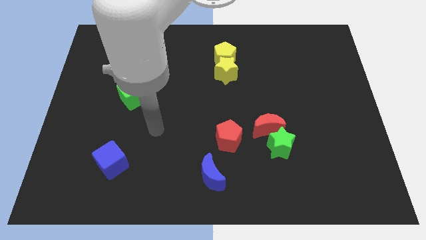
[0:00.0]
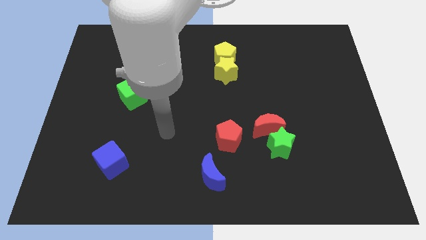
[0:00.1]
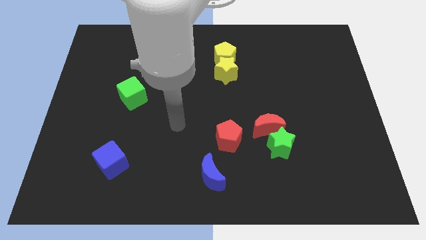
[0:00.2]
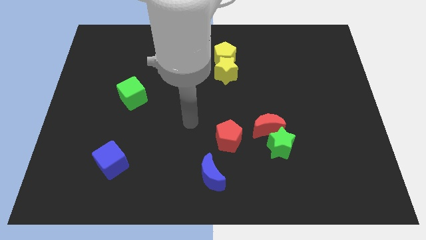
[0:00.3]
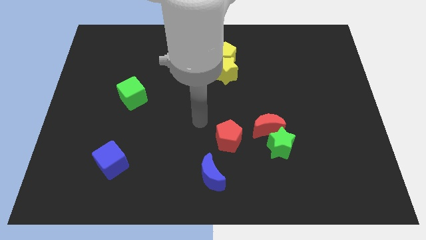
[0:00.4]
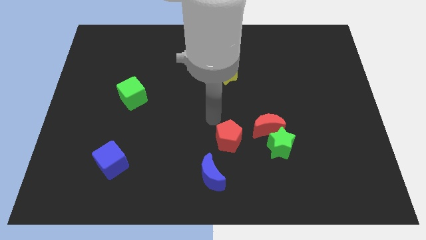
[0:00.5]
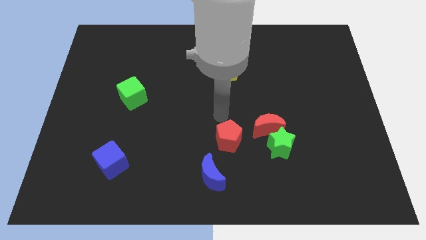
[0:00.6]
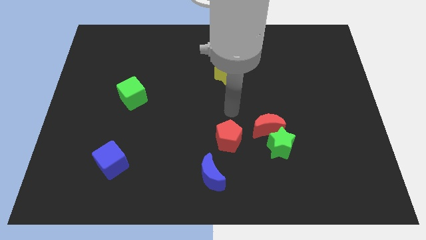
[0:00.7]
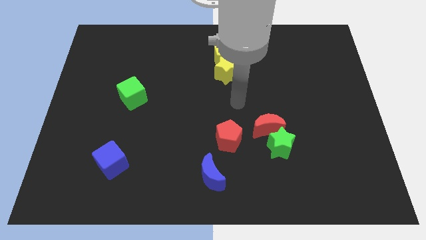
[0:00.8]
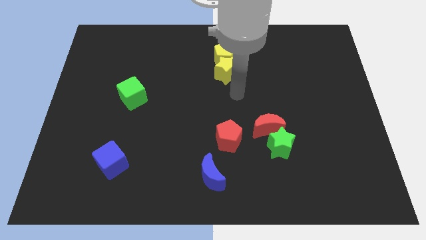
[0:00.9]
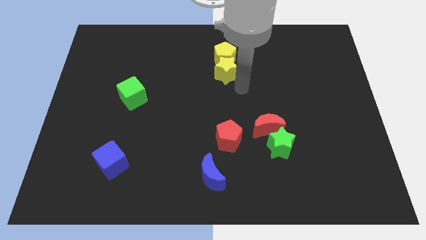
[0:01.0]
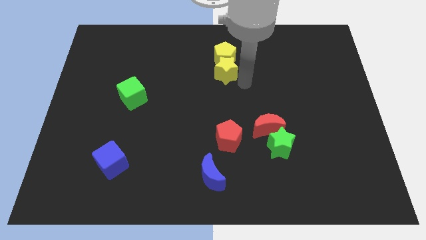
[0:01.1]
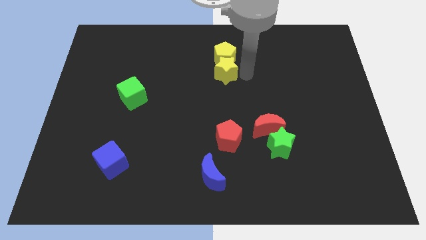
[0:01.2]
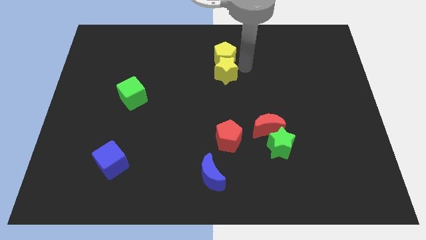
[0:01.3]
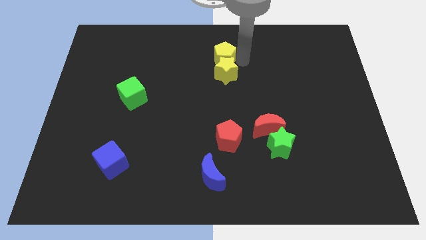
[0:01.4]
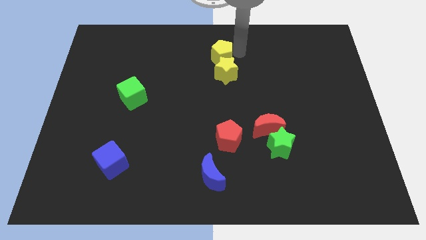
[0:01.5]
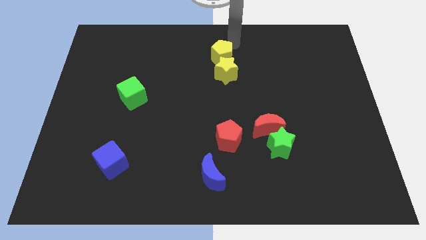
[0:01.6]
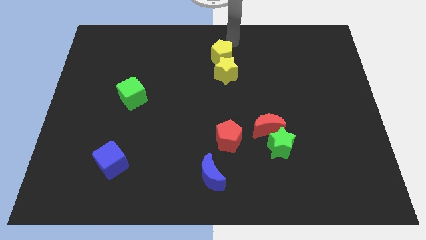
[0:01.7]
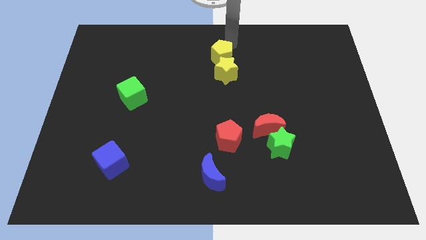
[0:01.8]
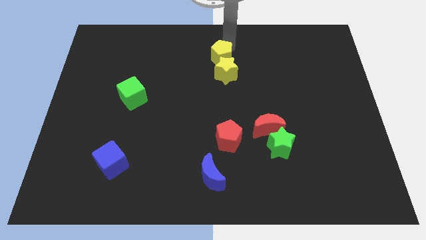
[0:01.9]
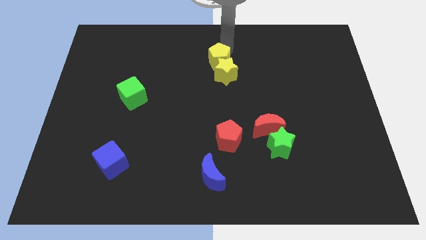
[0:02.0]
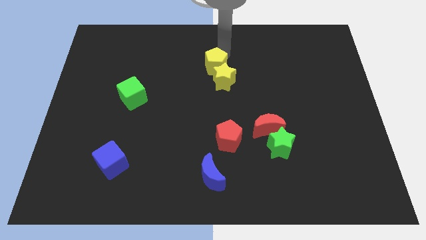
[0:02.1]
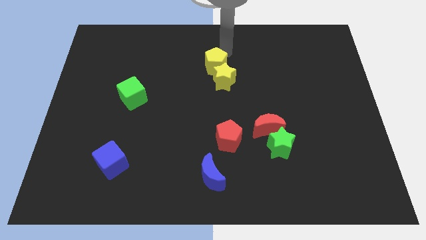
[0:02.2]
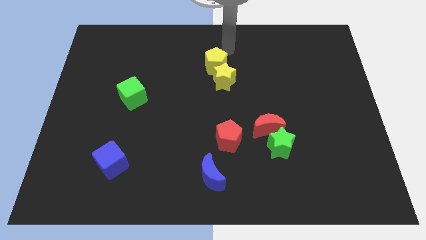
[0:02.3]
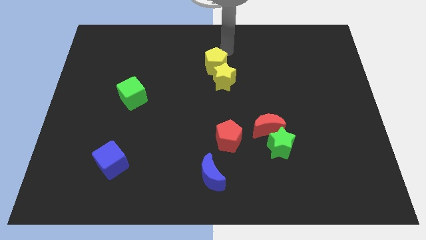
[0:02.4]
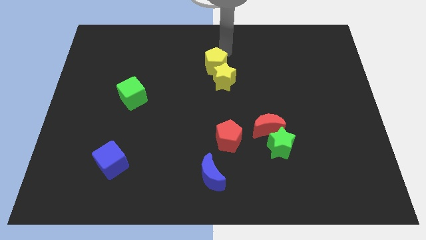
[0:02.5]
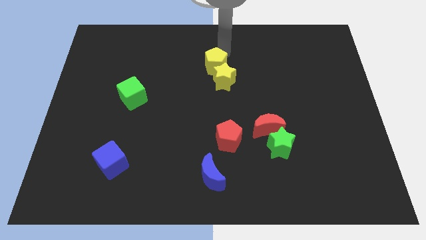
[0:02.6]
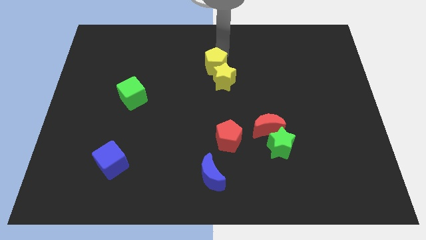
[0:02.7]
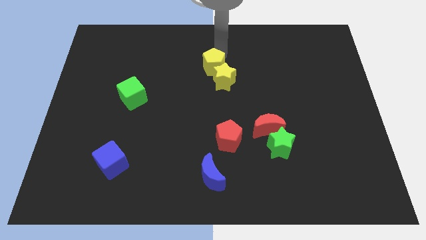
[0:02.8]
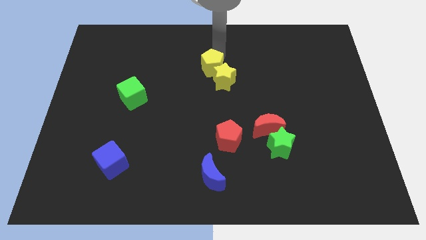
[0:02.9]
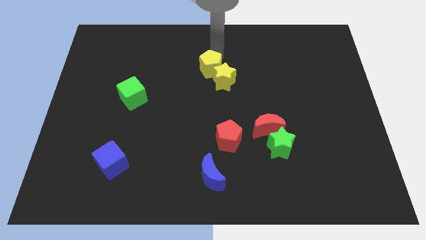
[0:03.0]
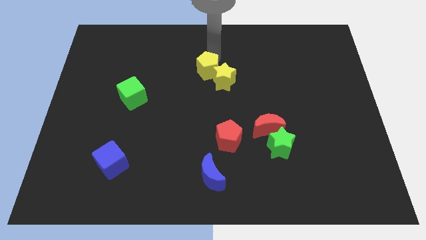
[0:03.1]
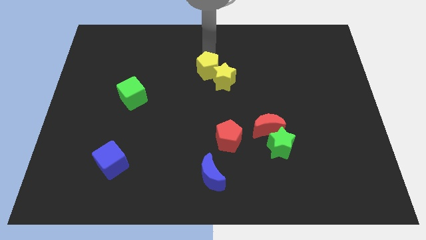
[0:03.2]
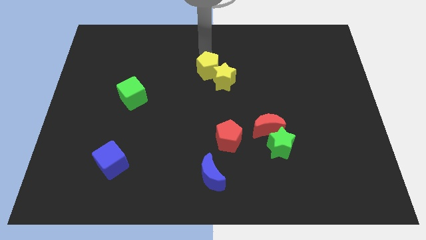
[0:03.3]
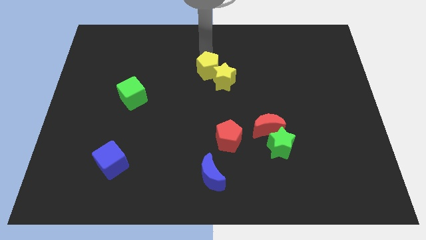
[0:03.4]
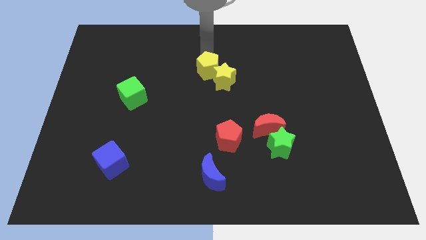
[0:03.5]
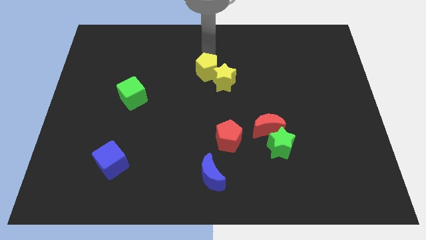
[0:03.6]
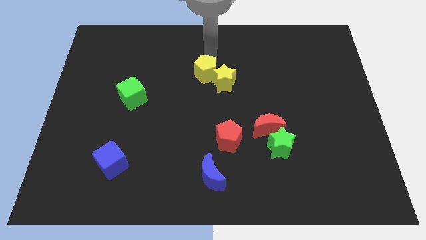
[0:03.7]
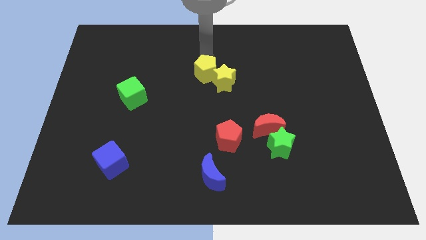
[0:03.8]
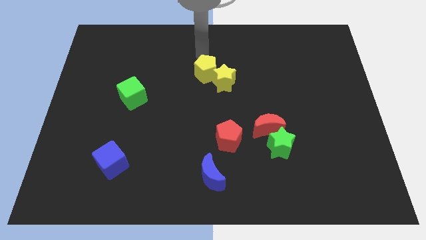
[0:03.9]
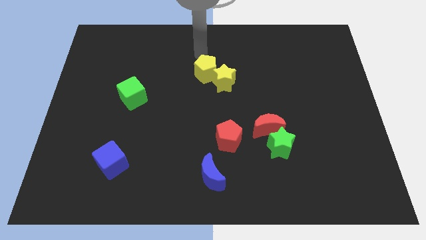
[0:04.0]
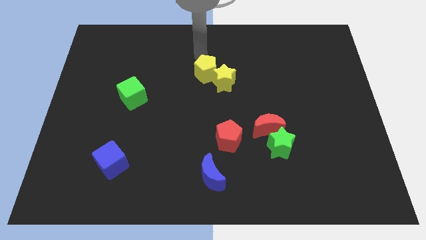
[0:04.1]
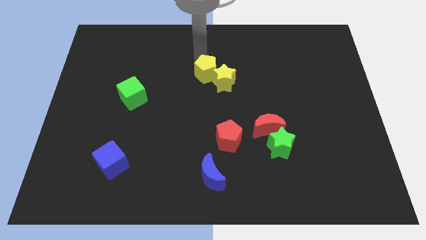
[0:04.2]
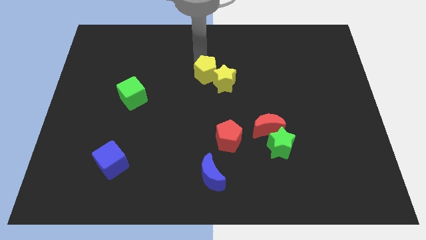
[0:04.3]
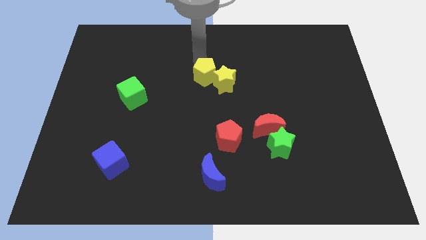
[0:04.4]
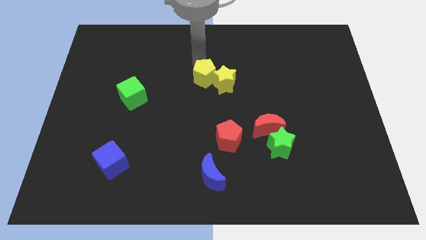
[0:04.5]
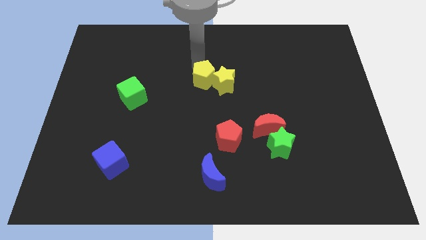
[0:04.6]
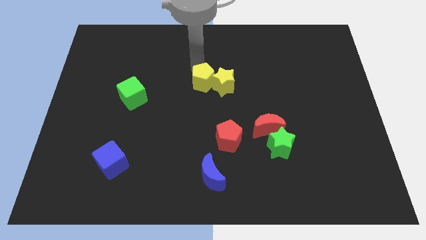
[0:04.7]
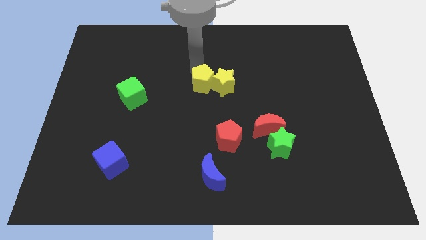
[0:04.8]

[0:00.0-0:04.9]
move the yellow pentagon down somewhat

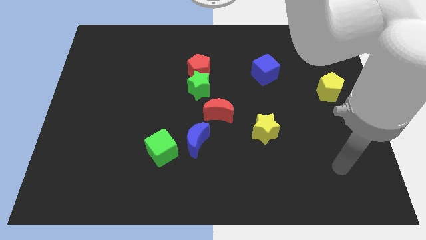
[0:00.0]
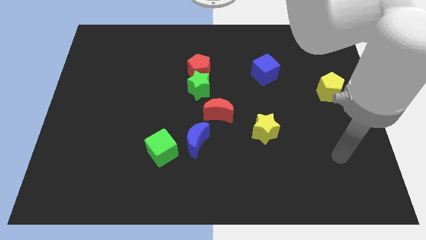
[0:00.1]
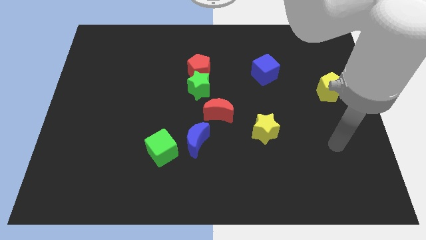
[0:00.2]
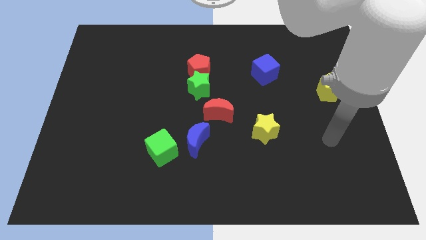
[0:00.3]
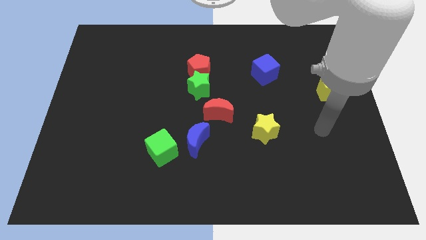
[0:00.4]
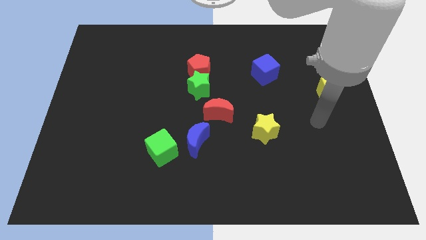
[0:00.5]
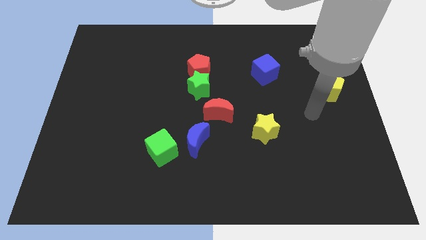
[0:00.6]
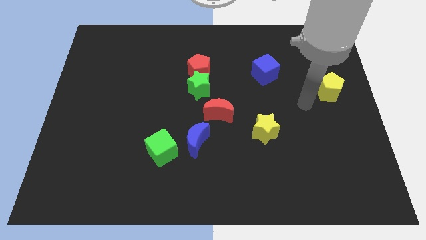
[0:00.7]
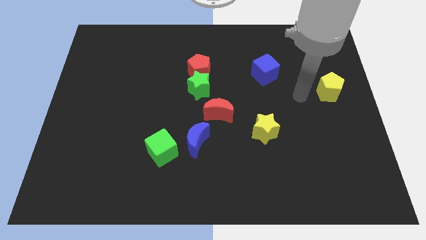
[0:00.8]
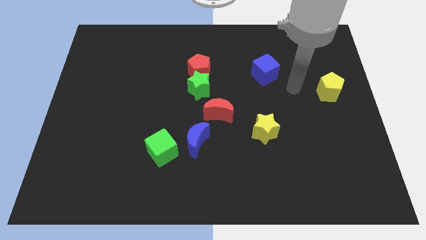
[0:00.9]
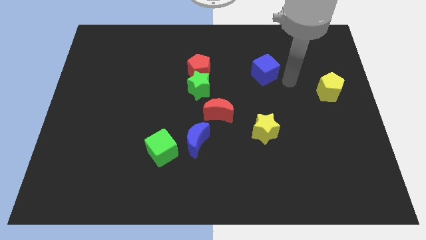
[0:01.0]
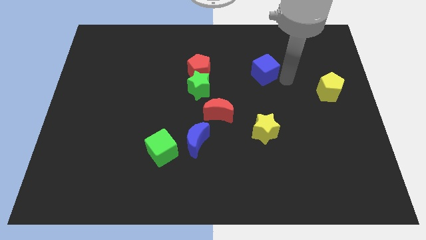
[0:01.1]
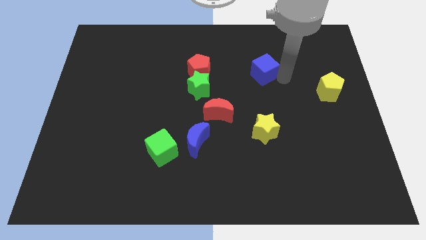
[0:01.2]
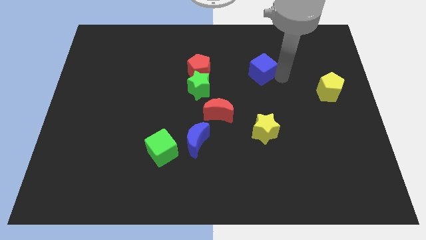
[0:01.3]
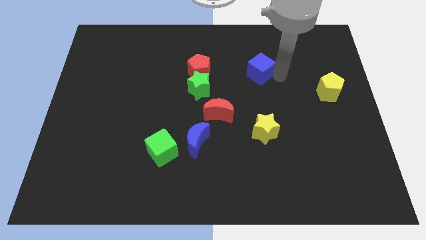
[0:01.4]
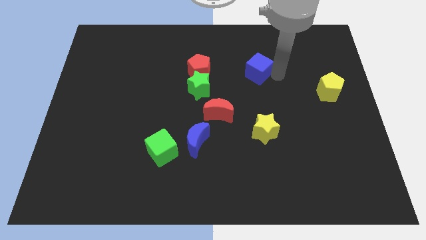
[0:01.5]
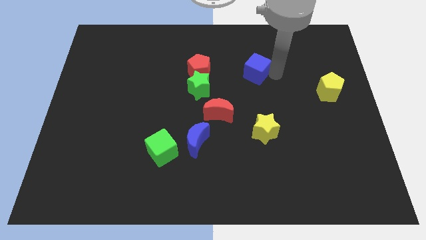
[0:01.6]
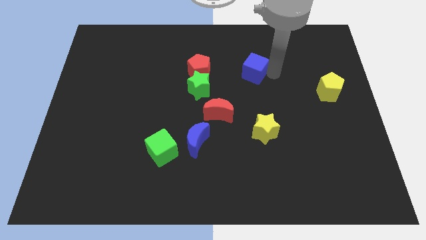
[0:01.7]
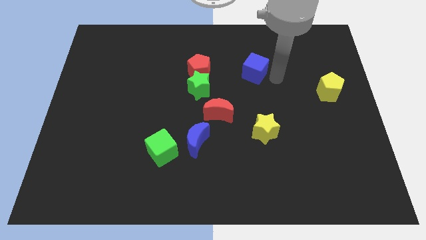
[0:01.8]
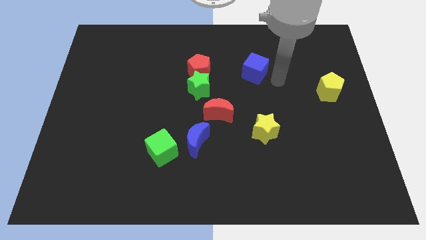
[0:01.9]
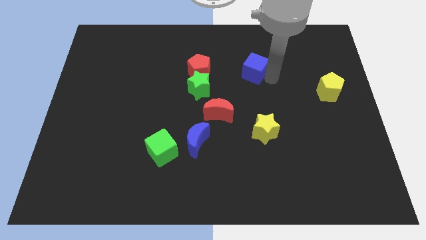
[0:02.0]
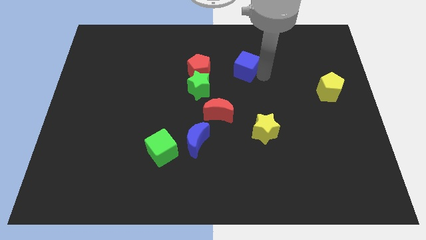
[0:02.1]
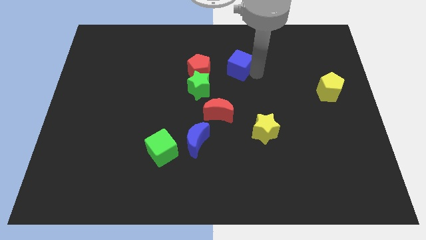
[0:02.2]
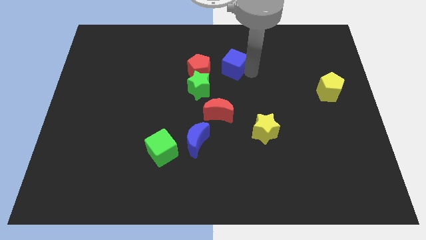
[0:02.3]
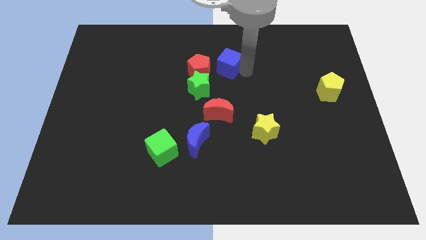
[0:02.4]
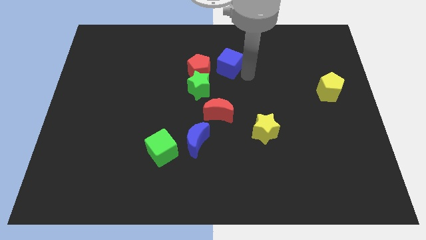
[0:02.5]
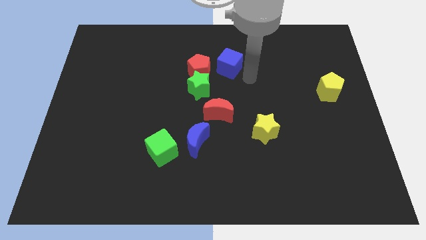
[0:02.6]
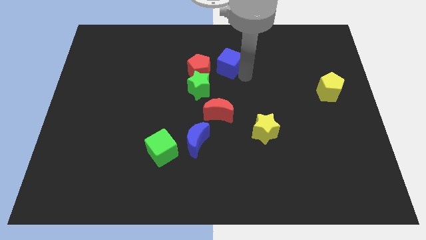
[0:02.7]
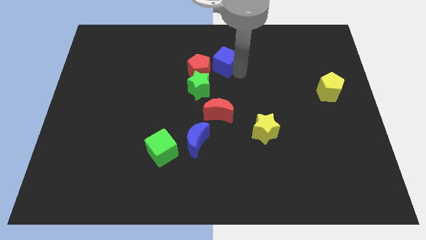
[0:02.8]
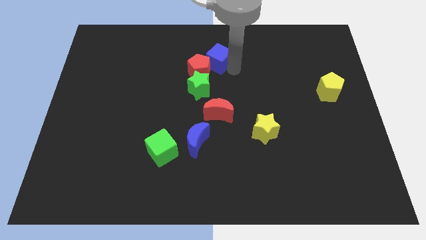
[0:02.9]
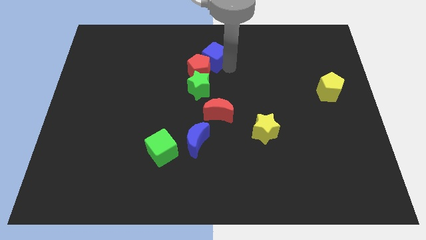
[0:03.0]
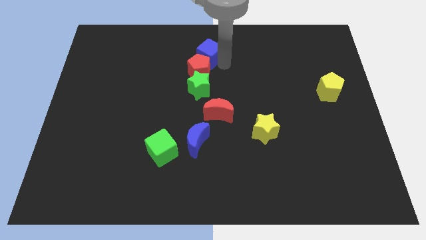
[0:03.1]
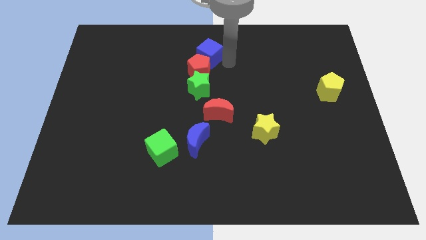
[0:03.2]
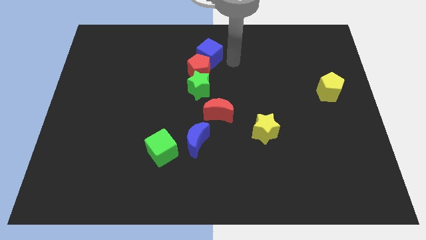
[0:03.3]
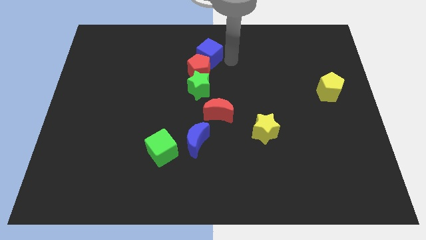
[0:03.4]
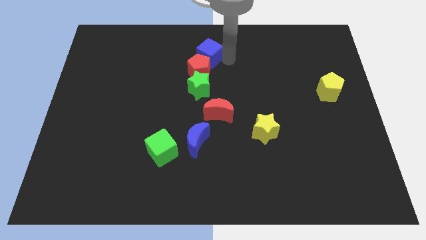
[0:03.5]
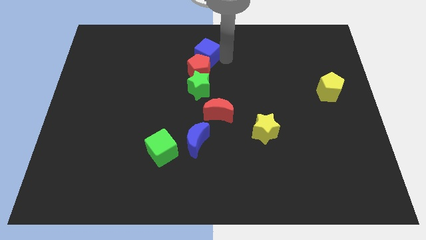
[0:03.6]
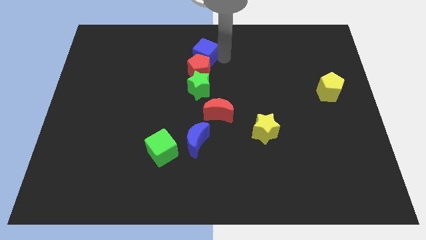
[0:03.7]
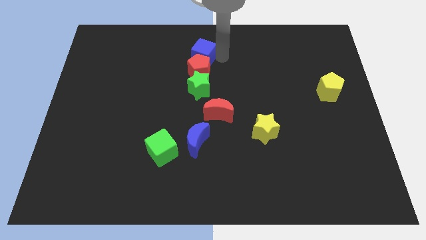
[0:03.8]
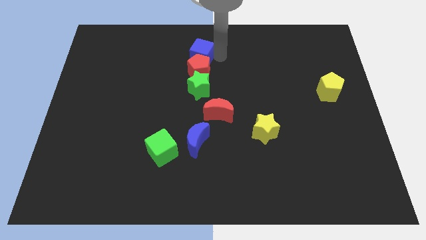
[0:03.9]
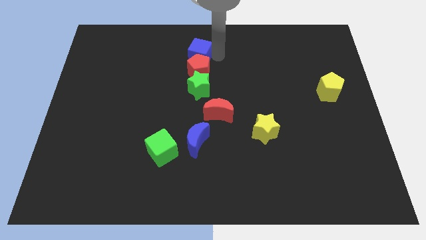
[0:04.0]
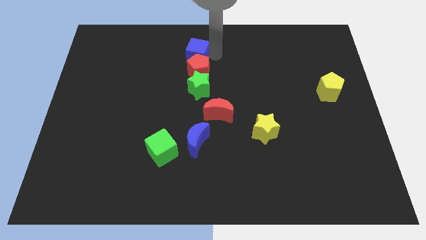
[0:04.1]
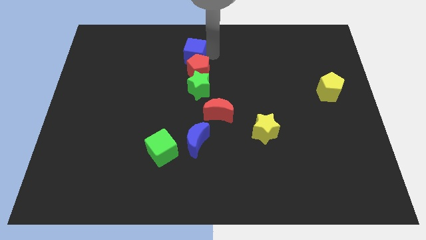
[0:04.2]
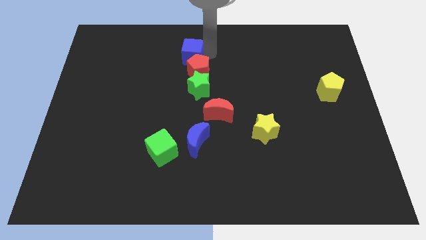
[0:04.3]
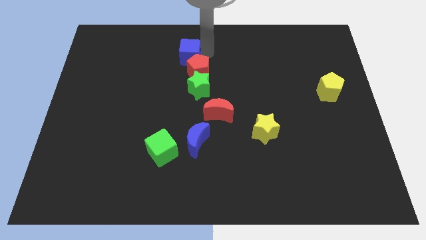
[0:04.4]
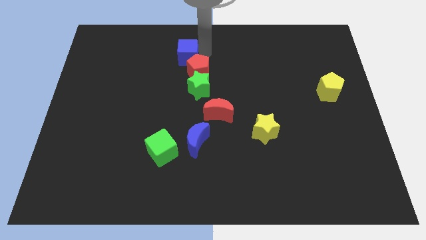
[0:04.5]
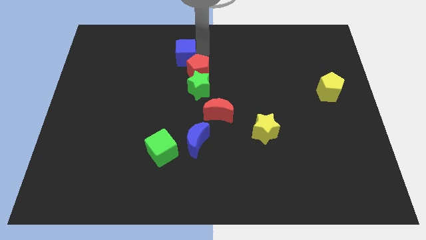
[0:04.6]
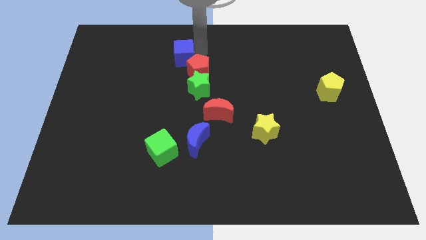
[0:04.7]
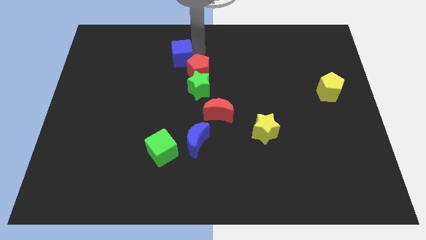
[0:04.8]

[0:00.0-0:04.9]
move the blue cube to the left
